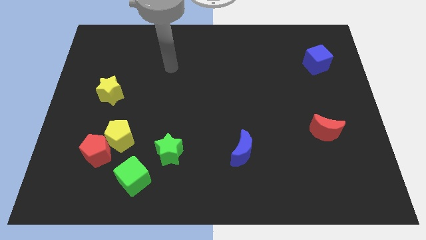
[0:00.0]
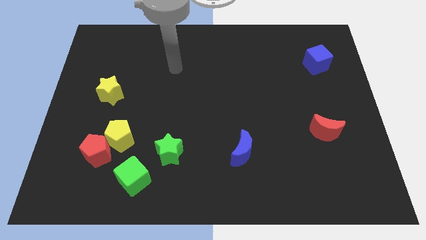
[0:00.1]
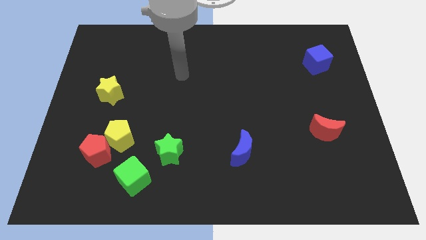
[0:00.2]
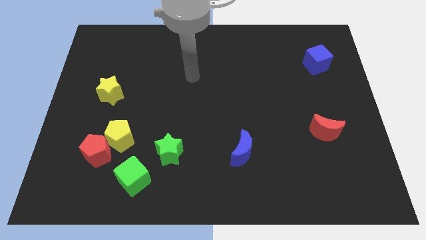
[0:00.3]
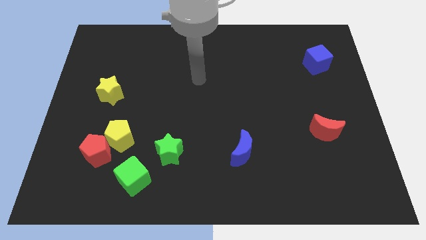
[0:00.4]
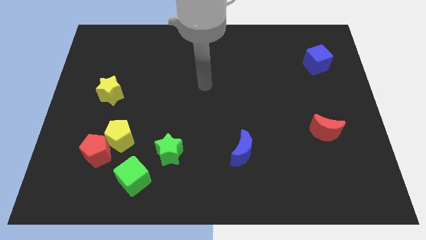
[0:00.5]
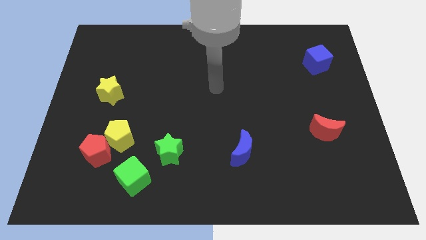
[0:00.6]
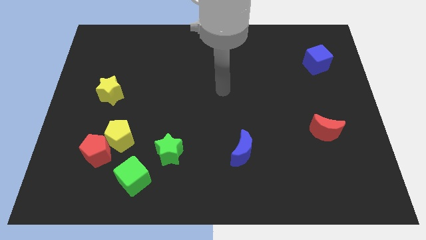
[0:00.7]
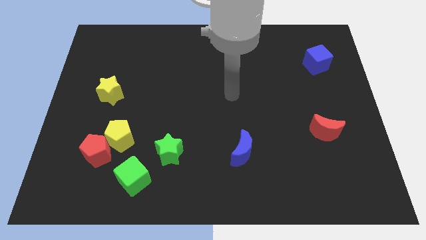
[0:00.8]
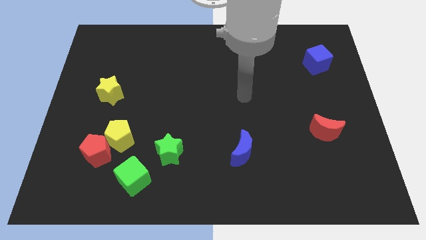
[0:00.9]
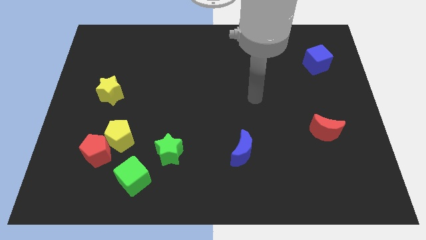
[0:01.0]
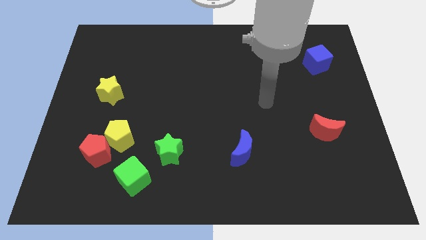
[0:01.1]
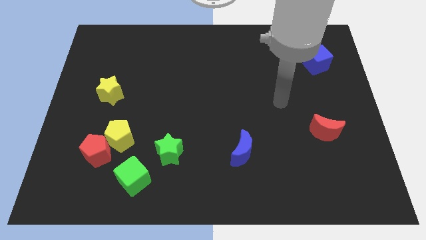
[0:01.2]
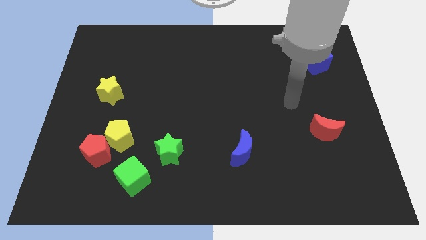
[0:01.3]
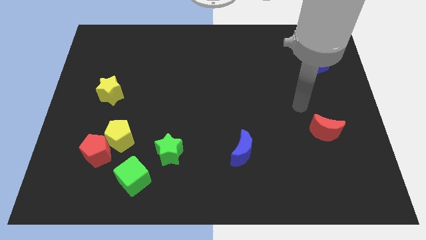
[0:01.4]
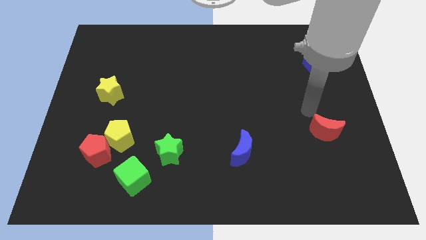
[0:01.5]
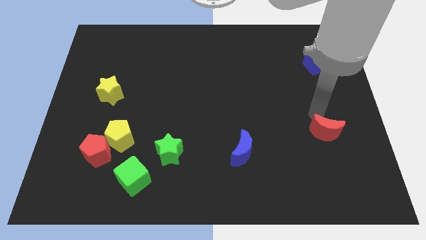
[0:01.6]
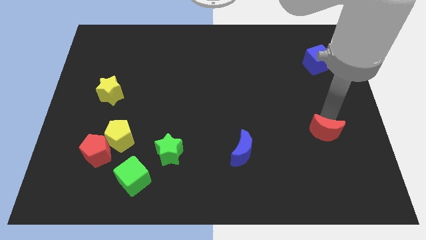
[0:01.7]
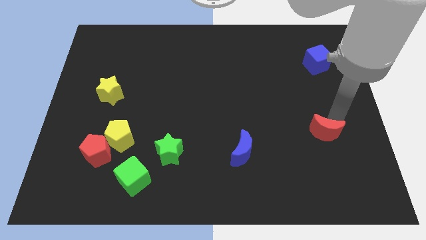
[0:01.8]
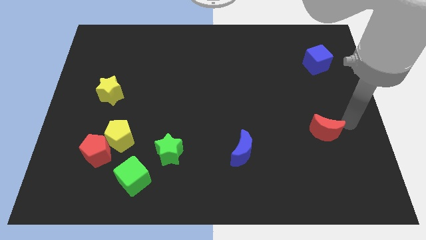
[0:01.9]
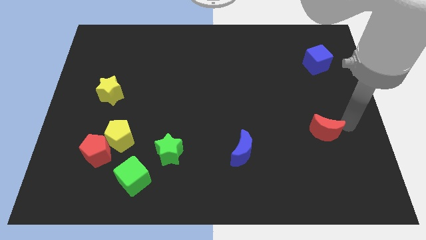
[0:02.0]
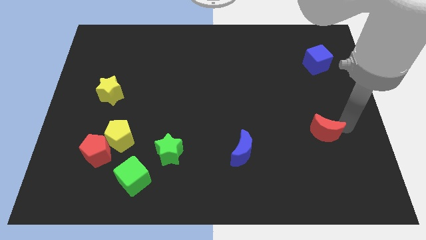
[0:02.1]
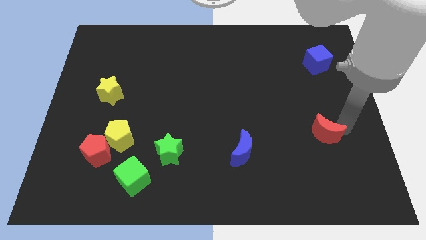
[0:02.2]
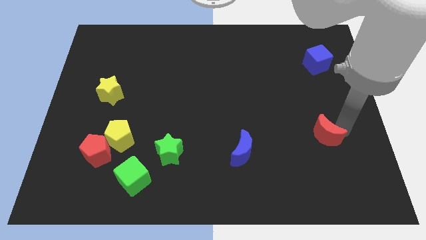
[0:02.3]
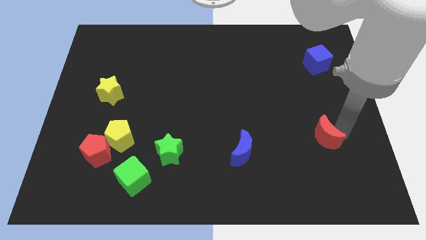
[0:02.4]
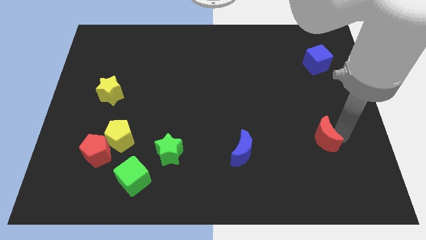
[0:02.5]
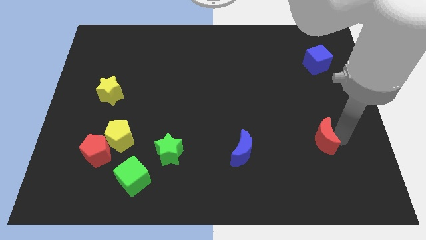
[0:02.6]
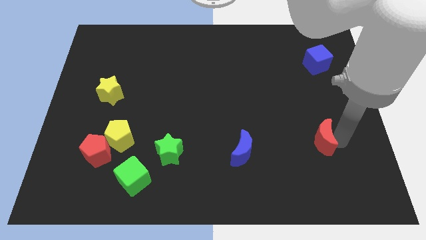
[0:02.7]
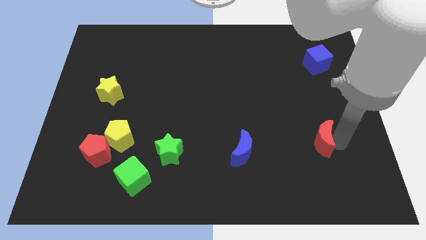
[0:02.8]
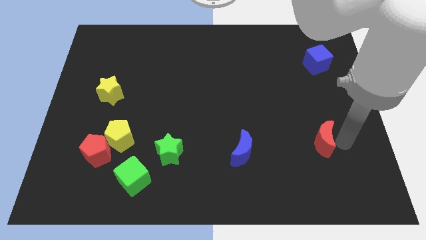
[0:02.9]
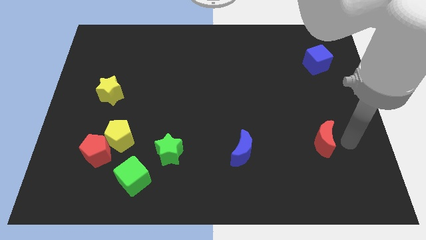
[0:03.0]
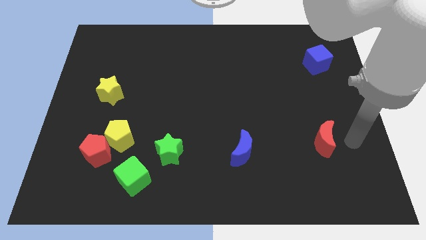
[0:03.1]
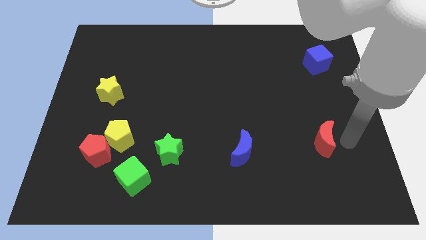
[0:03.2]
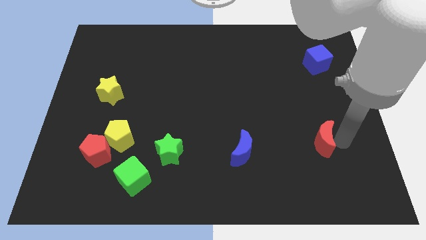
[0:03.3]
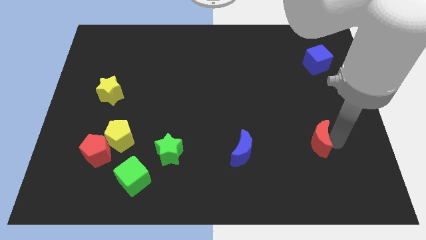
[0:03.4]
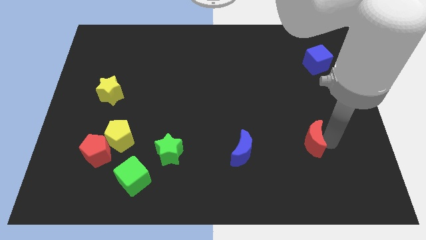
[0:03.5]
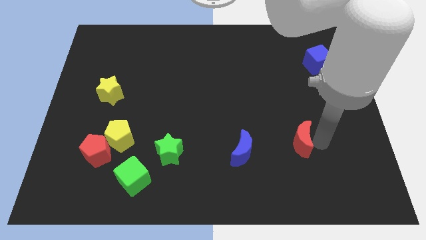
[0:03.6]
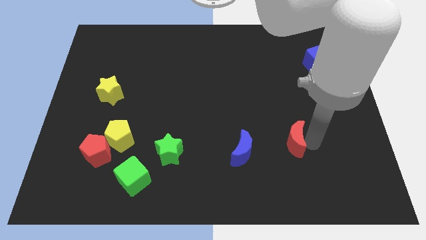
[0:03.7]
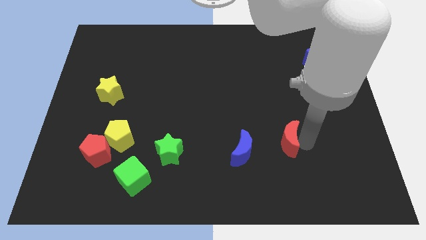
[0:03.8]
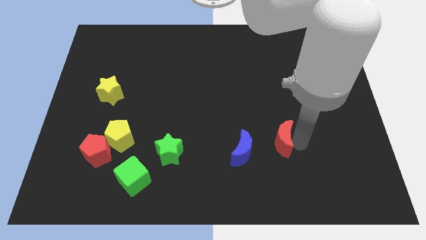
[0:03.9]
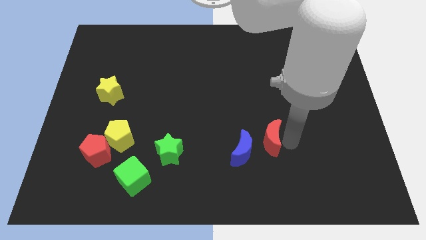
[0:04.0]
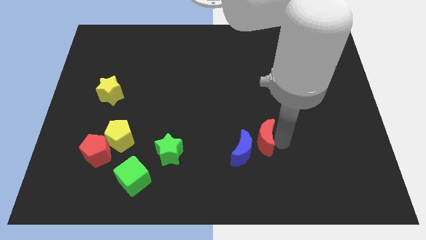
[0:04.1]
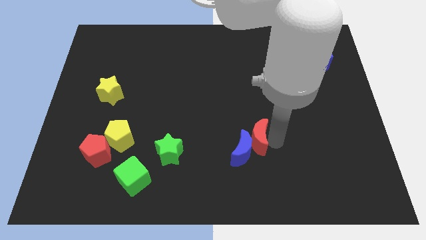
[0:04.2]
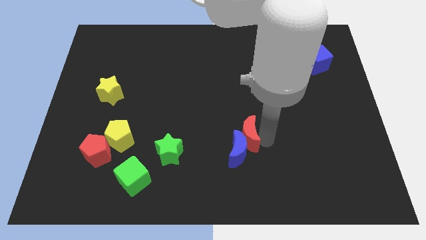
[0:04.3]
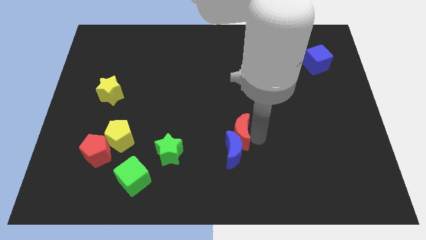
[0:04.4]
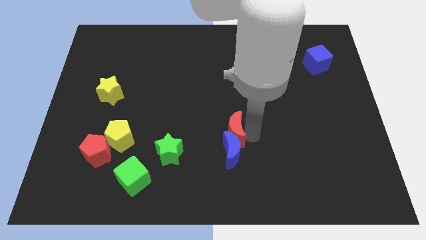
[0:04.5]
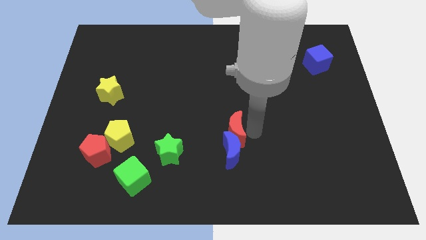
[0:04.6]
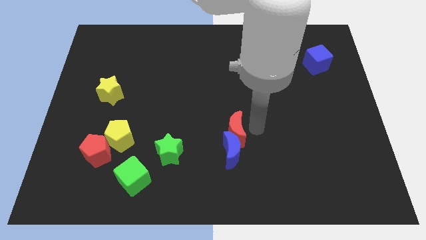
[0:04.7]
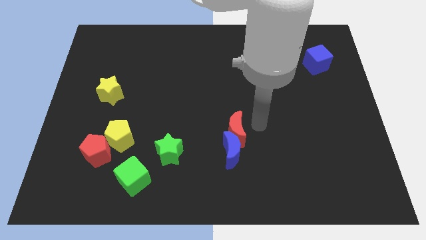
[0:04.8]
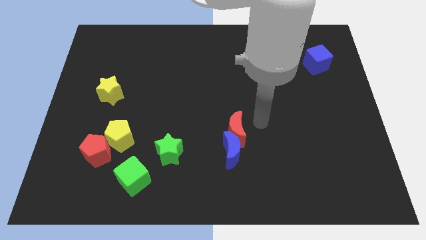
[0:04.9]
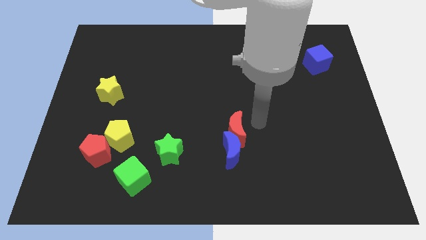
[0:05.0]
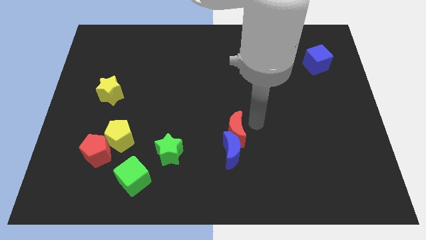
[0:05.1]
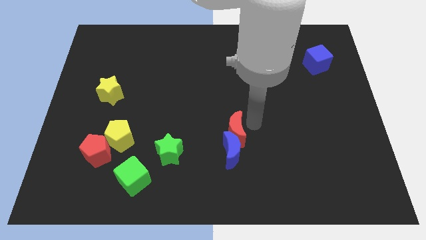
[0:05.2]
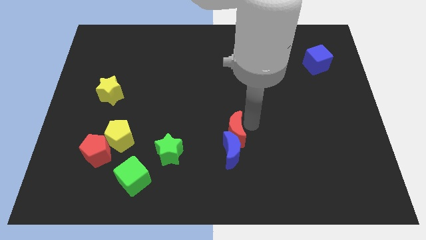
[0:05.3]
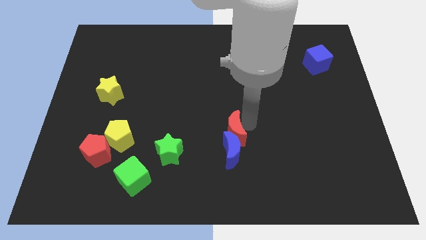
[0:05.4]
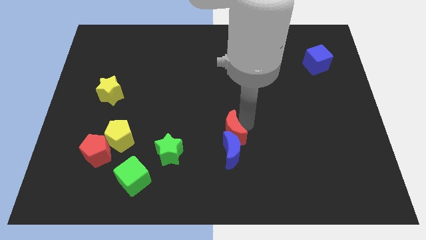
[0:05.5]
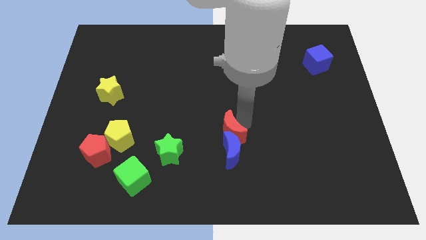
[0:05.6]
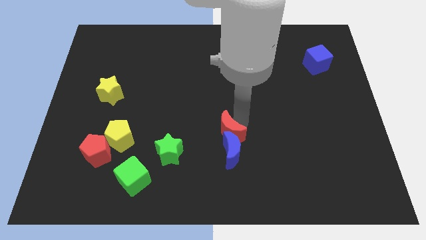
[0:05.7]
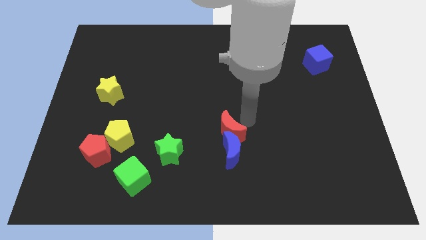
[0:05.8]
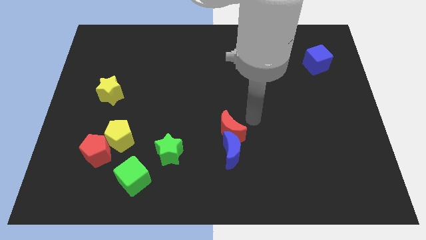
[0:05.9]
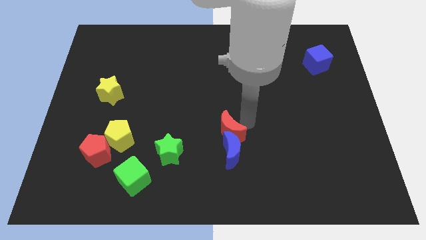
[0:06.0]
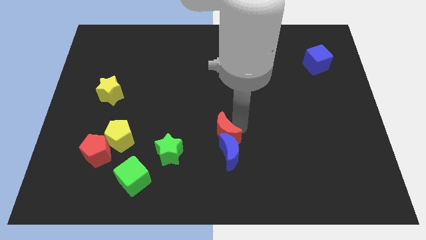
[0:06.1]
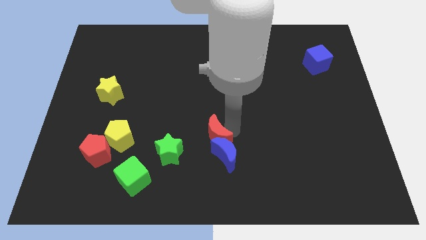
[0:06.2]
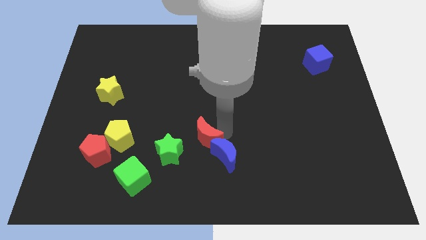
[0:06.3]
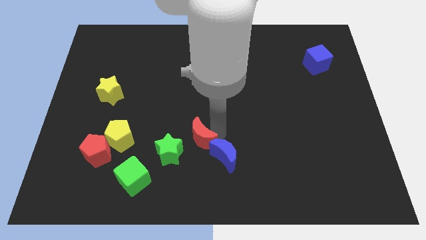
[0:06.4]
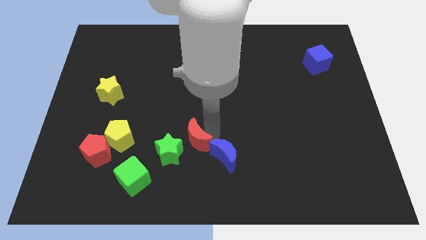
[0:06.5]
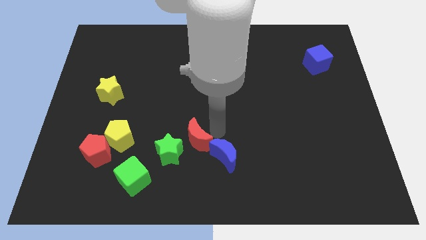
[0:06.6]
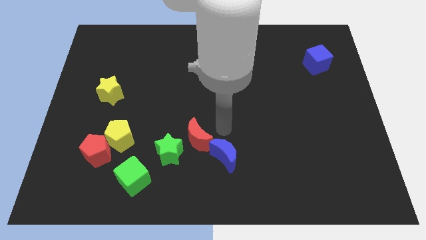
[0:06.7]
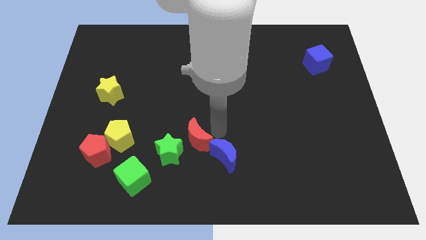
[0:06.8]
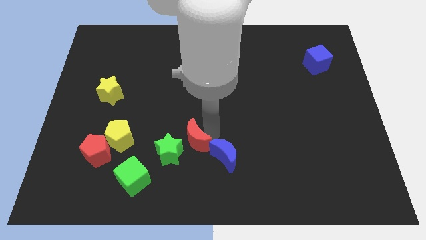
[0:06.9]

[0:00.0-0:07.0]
put the red moon next to the green star

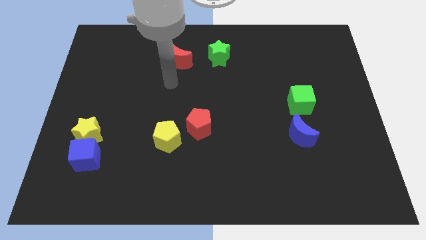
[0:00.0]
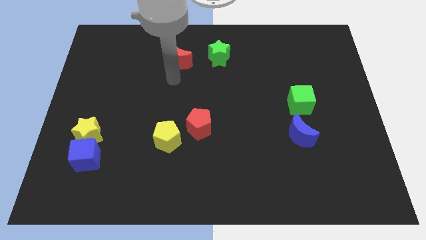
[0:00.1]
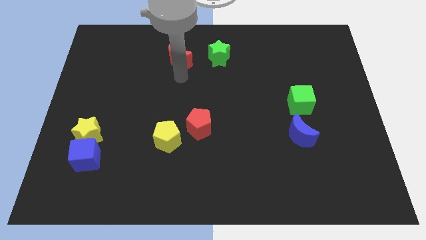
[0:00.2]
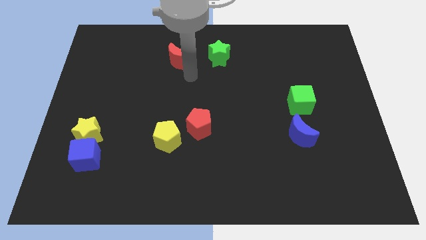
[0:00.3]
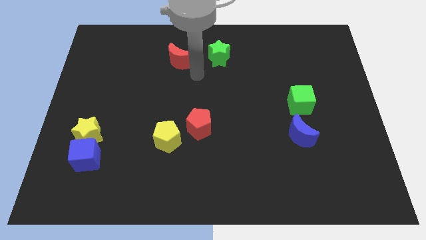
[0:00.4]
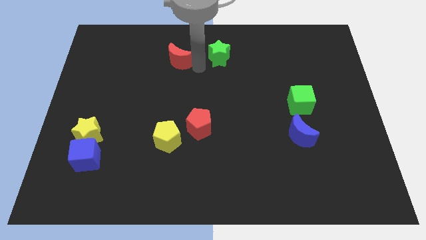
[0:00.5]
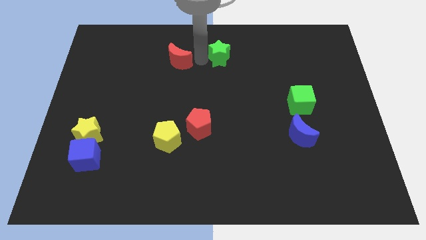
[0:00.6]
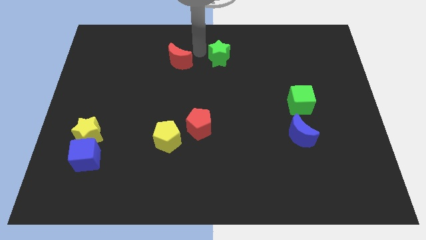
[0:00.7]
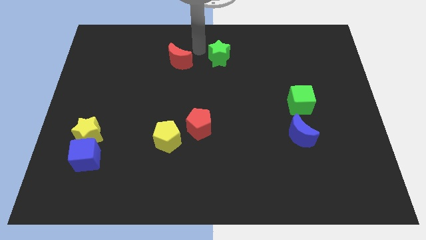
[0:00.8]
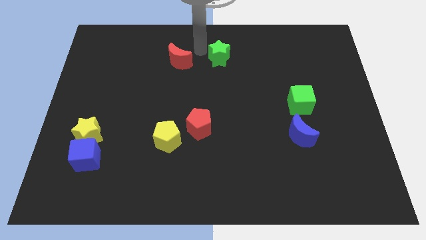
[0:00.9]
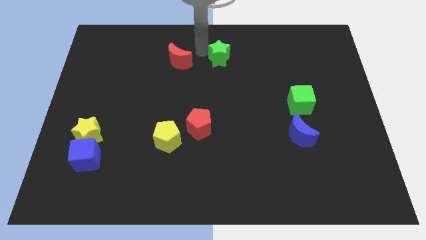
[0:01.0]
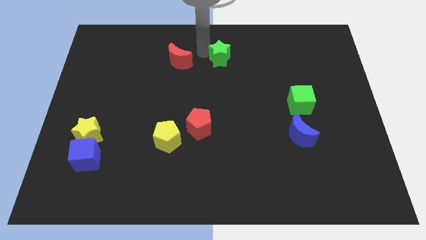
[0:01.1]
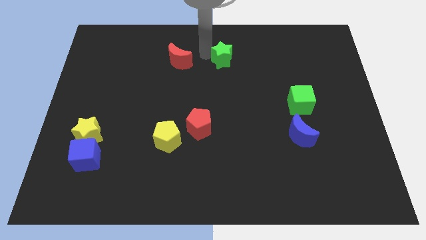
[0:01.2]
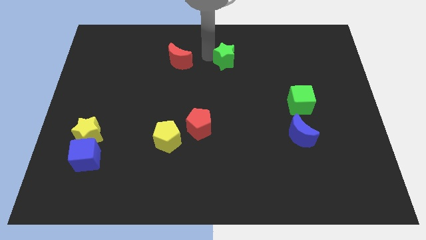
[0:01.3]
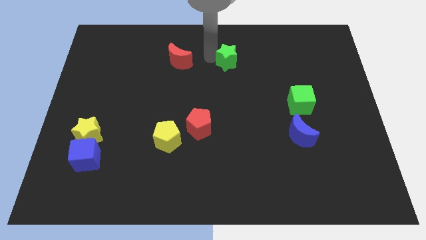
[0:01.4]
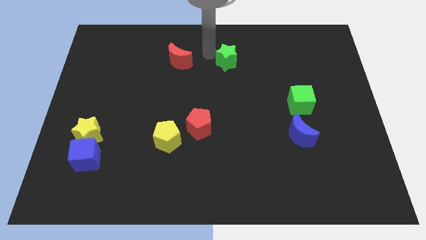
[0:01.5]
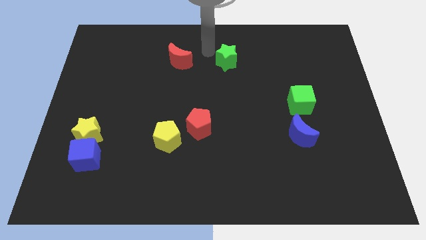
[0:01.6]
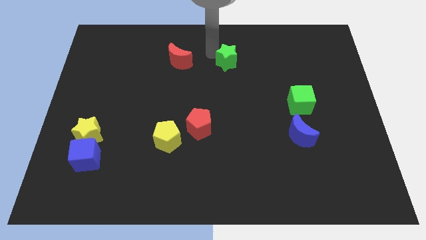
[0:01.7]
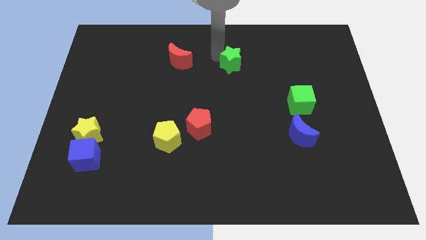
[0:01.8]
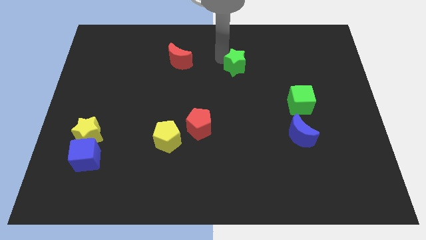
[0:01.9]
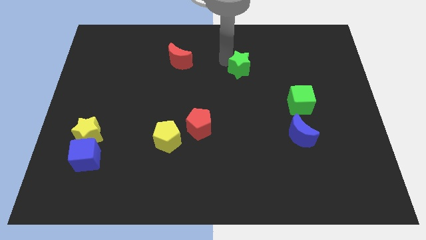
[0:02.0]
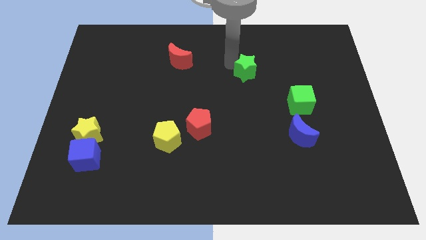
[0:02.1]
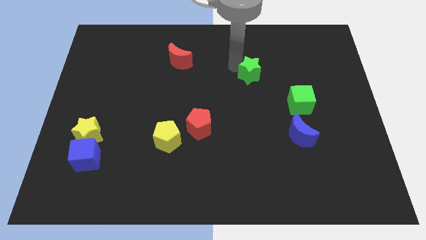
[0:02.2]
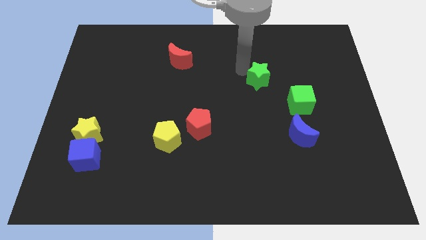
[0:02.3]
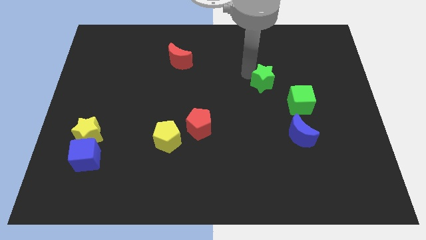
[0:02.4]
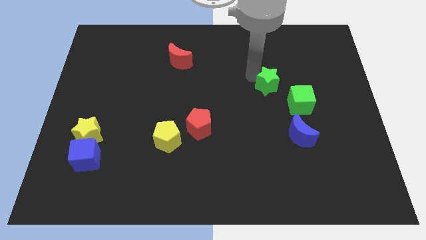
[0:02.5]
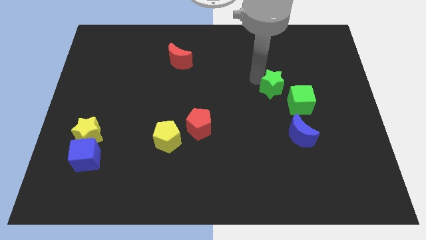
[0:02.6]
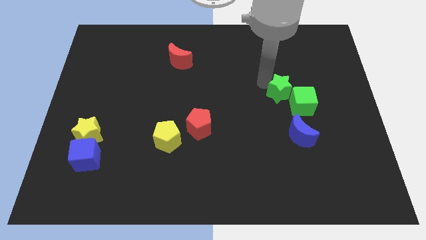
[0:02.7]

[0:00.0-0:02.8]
put the green star to the green cube
